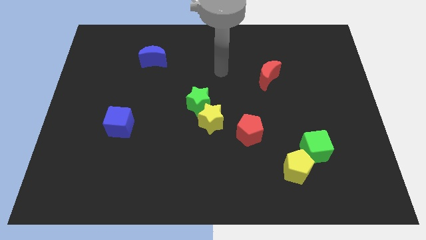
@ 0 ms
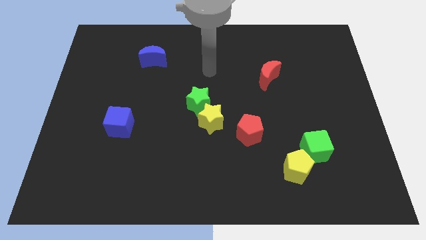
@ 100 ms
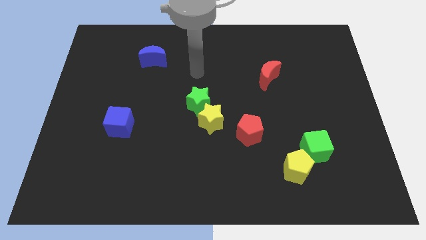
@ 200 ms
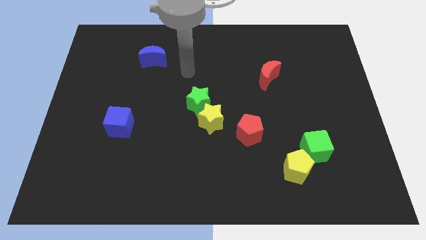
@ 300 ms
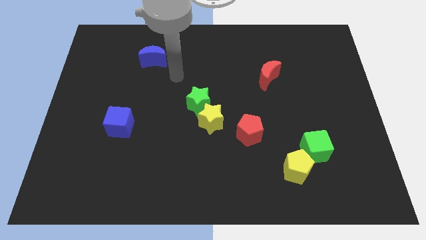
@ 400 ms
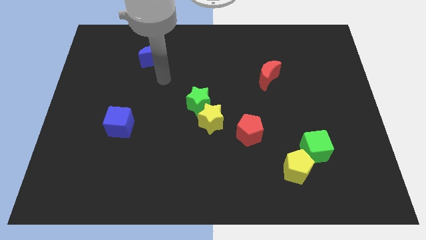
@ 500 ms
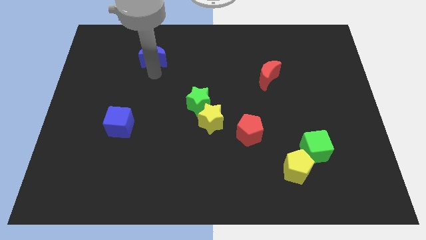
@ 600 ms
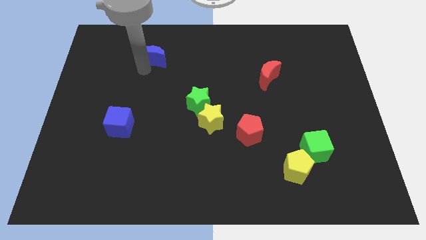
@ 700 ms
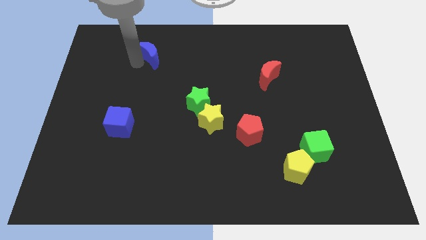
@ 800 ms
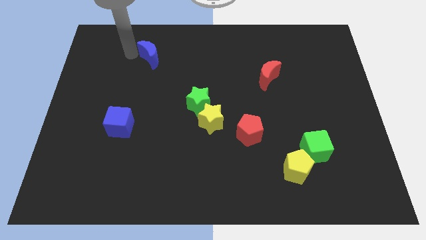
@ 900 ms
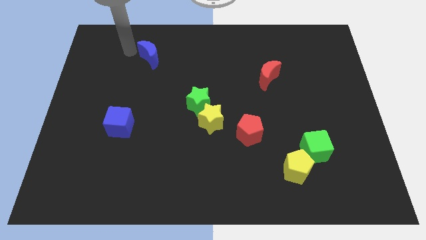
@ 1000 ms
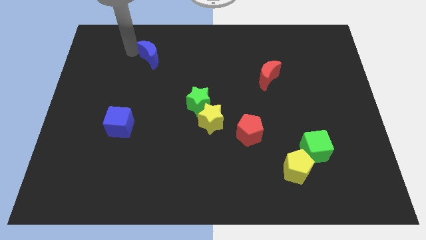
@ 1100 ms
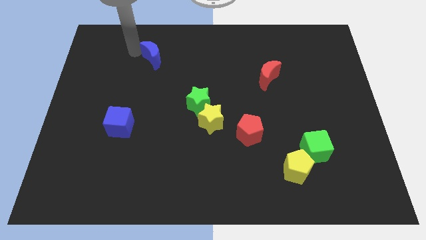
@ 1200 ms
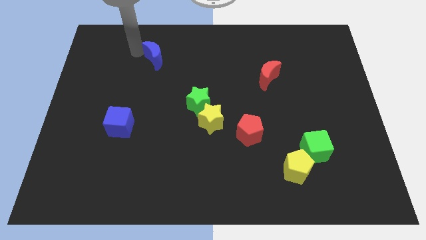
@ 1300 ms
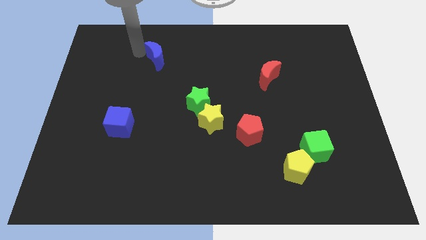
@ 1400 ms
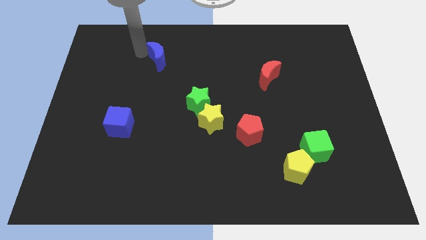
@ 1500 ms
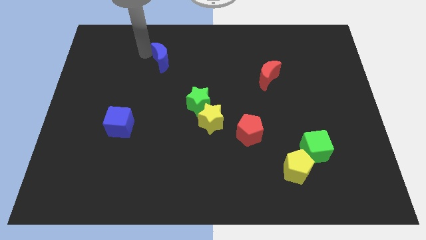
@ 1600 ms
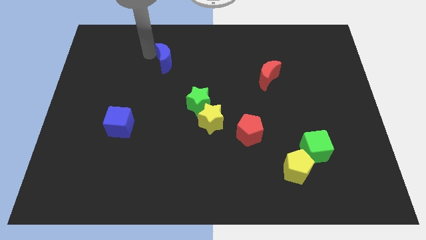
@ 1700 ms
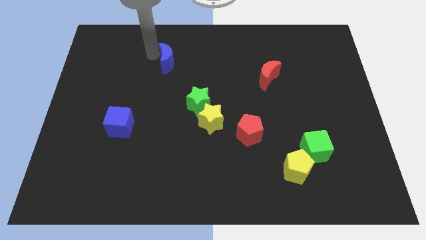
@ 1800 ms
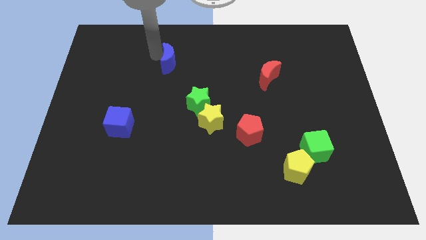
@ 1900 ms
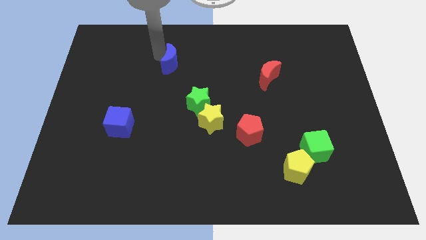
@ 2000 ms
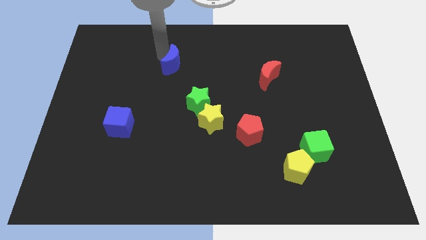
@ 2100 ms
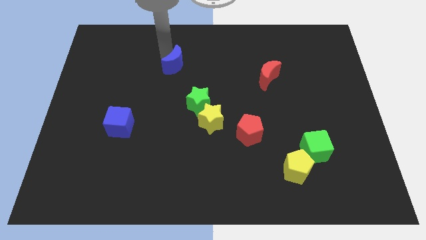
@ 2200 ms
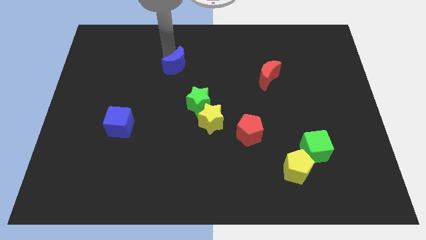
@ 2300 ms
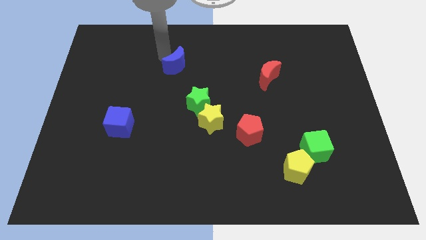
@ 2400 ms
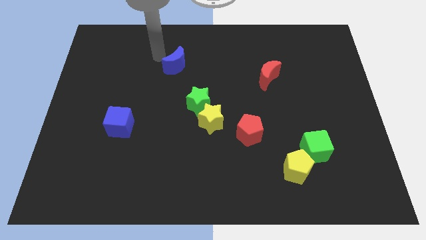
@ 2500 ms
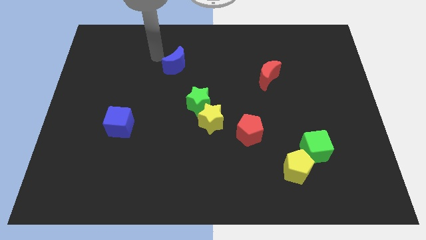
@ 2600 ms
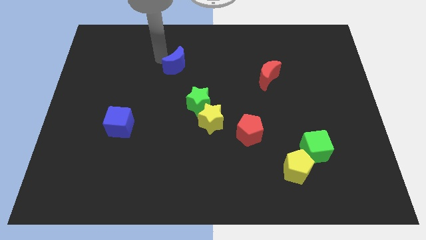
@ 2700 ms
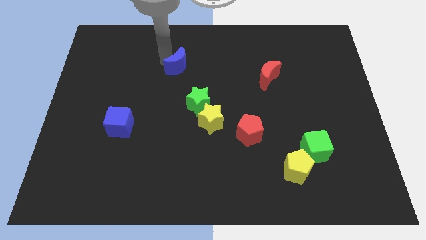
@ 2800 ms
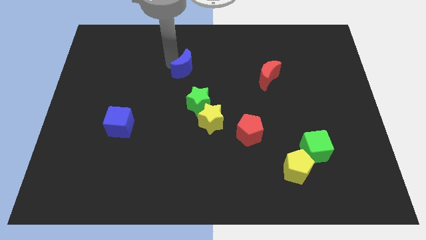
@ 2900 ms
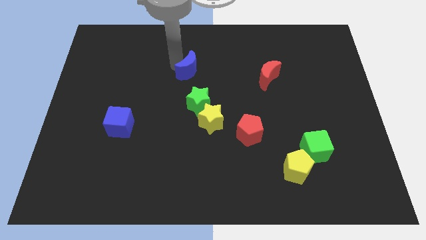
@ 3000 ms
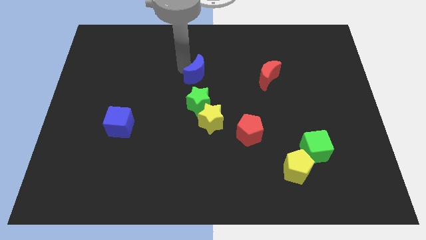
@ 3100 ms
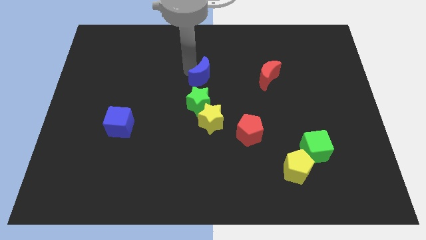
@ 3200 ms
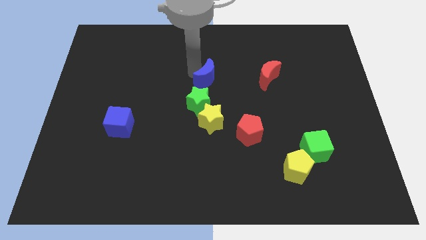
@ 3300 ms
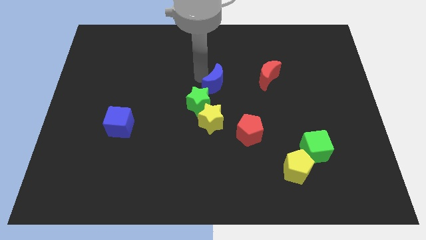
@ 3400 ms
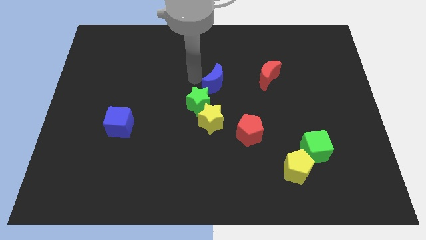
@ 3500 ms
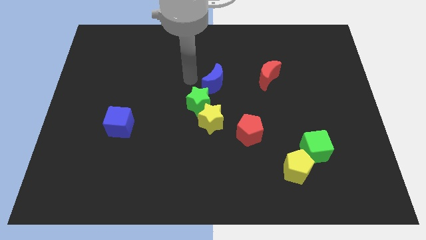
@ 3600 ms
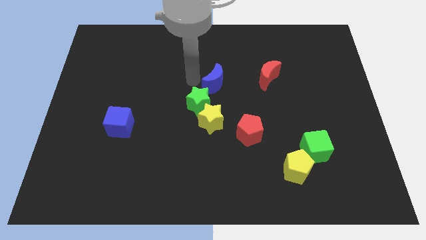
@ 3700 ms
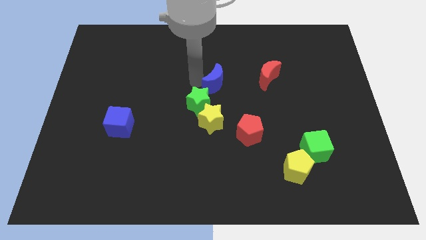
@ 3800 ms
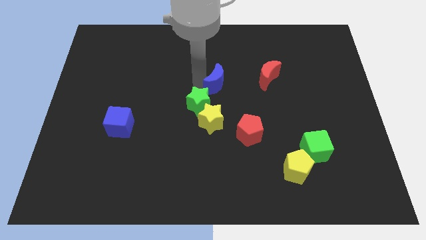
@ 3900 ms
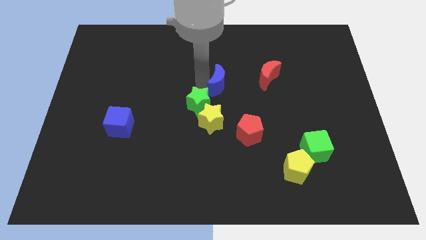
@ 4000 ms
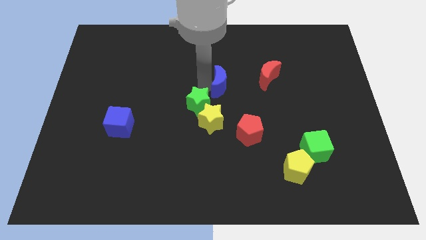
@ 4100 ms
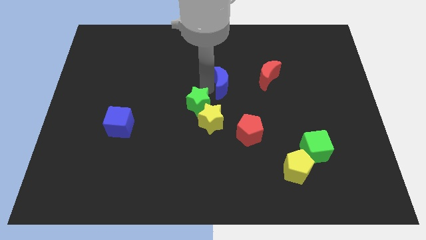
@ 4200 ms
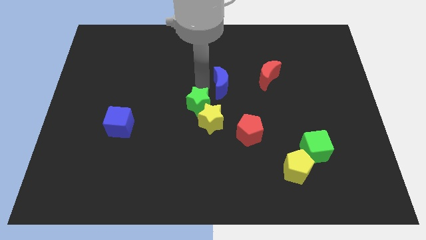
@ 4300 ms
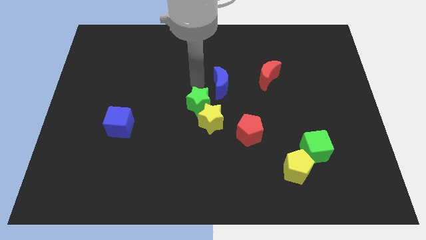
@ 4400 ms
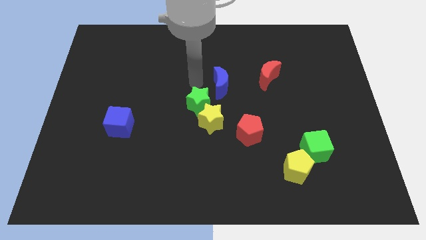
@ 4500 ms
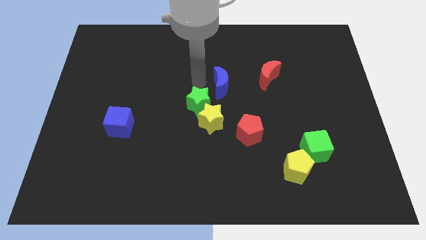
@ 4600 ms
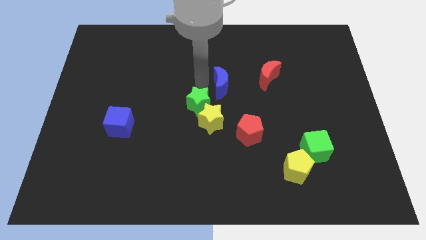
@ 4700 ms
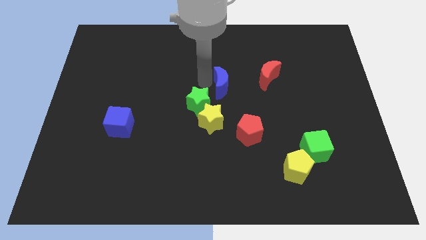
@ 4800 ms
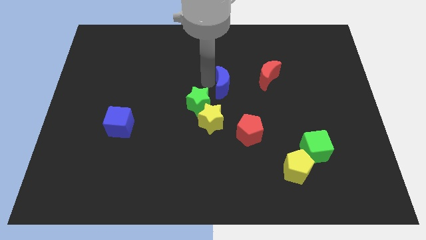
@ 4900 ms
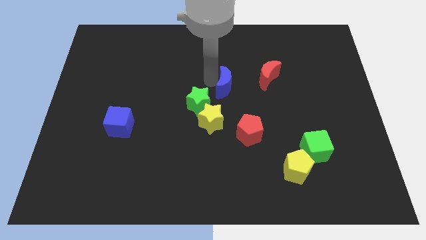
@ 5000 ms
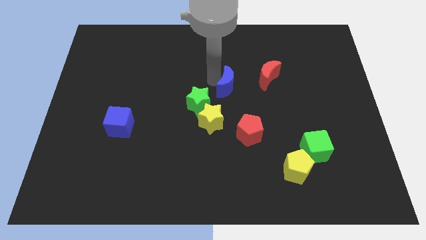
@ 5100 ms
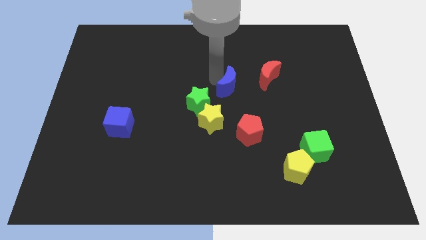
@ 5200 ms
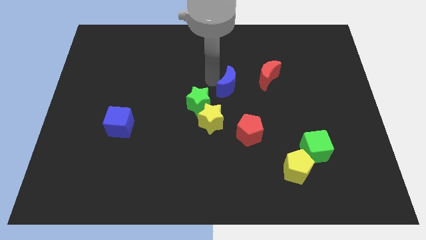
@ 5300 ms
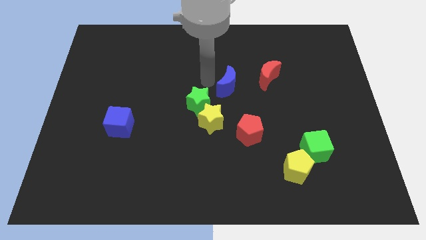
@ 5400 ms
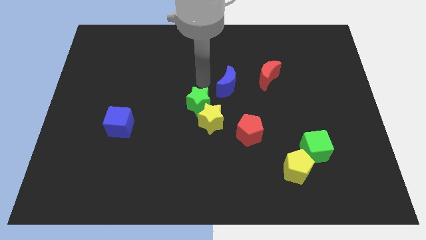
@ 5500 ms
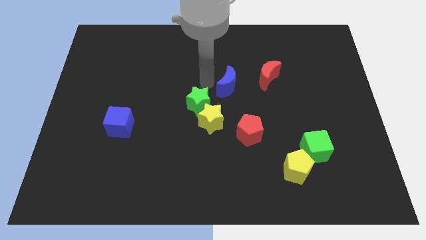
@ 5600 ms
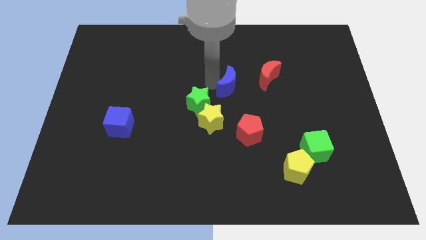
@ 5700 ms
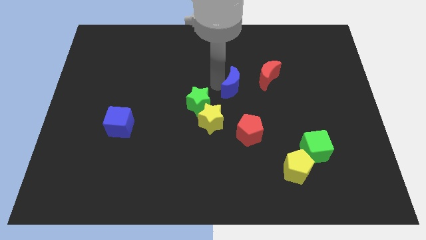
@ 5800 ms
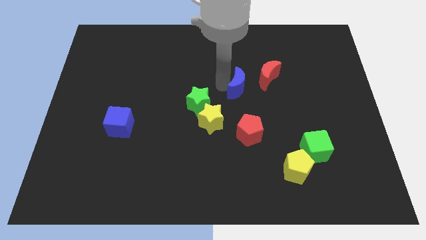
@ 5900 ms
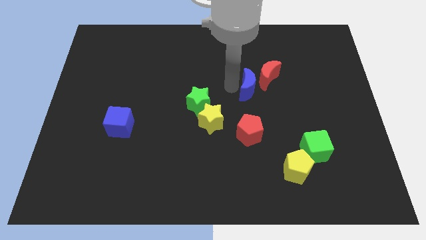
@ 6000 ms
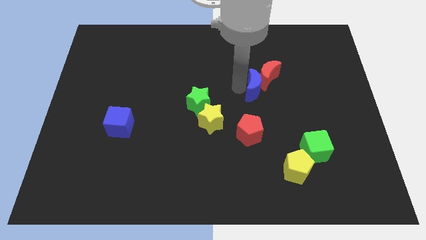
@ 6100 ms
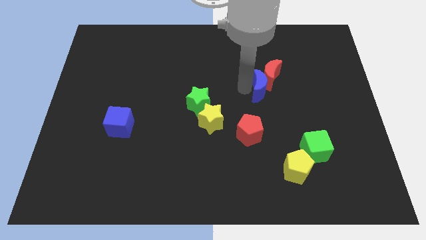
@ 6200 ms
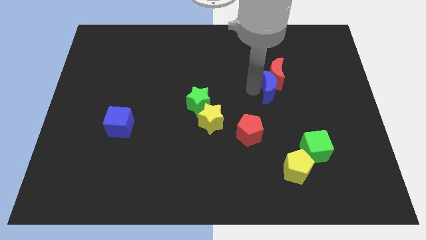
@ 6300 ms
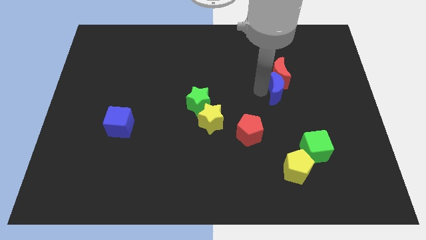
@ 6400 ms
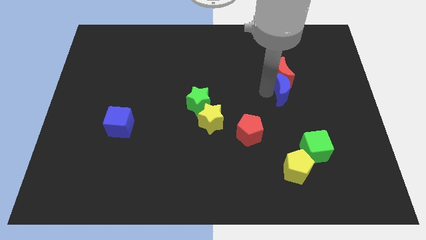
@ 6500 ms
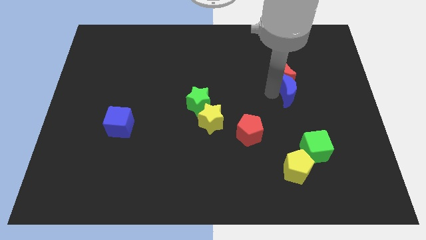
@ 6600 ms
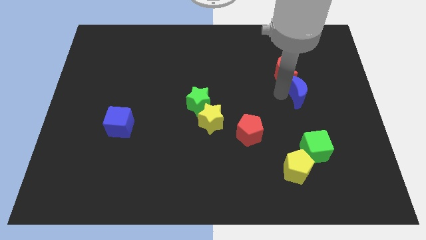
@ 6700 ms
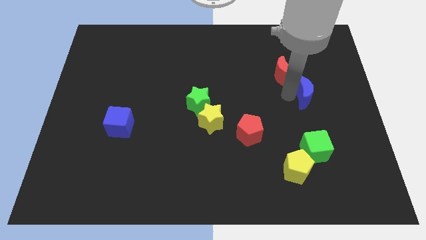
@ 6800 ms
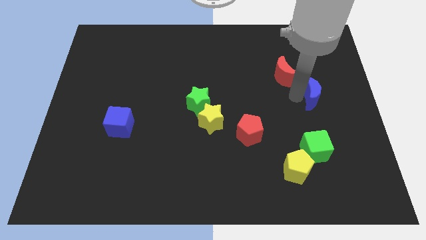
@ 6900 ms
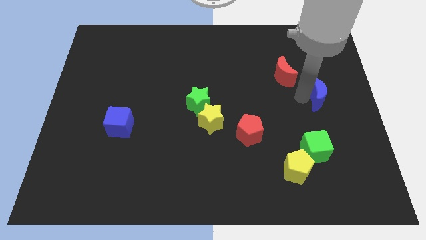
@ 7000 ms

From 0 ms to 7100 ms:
push the blue moon to the center right

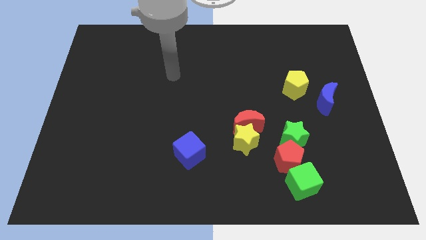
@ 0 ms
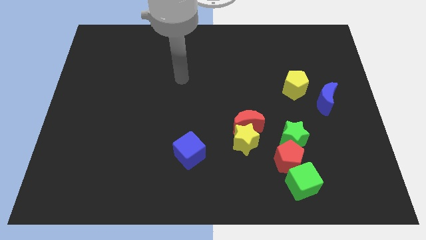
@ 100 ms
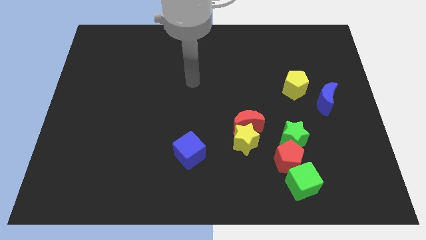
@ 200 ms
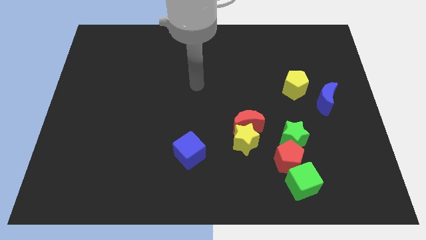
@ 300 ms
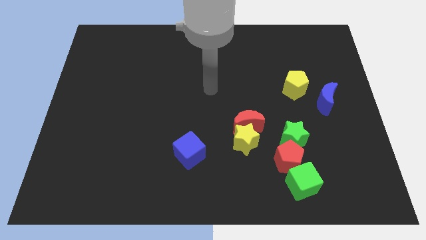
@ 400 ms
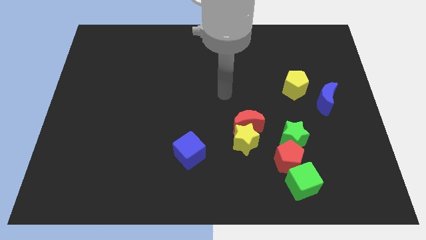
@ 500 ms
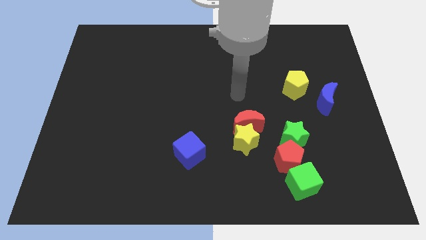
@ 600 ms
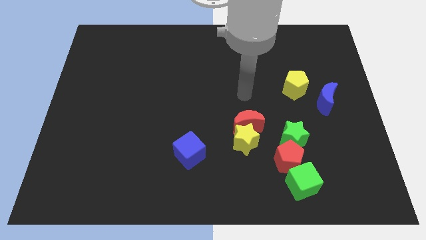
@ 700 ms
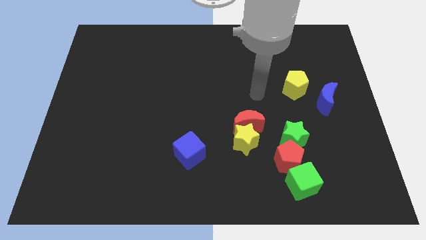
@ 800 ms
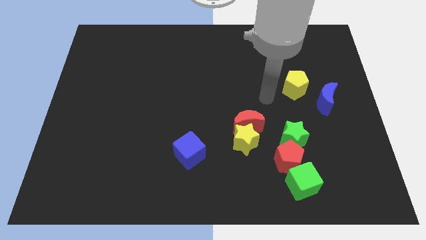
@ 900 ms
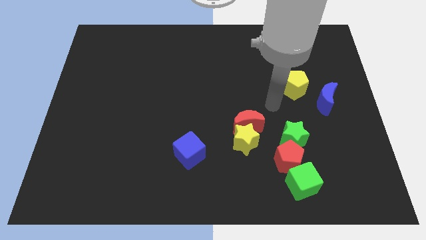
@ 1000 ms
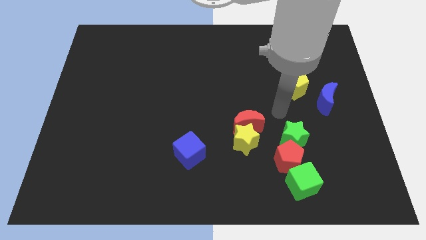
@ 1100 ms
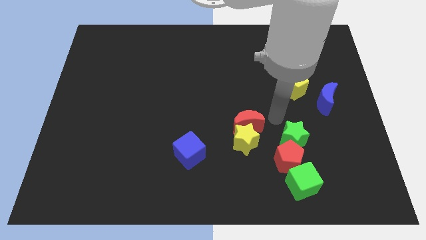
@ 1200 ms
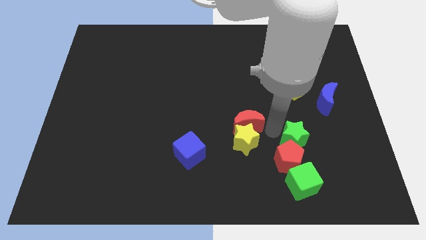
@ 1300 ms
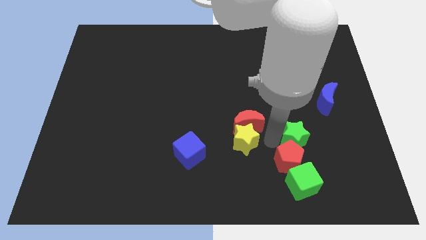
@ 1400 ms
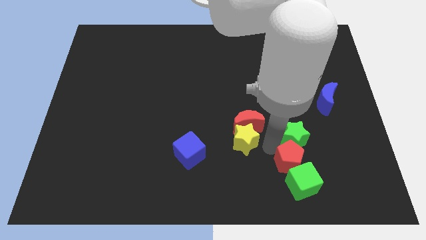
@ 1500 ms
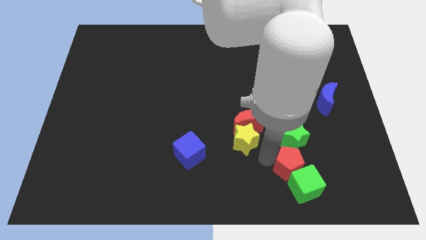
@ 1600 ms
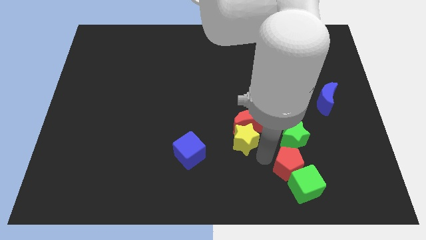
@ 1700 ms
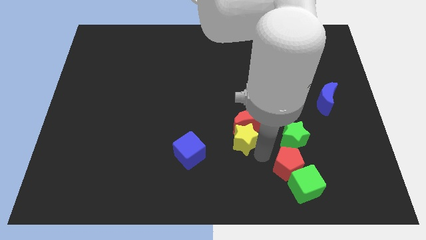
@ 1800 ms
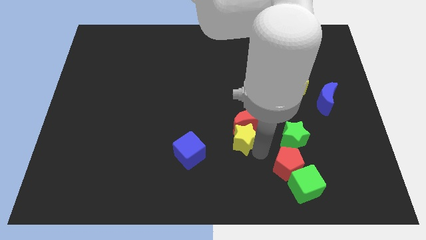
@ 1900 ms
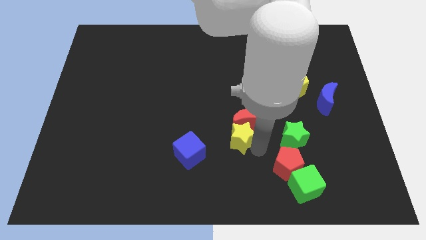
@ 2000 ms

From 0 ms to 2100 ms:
slide the yellow star to the center of the board
